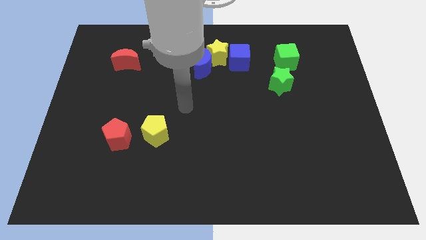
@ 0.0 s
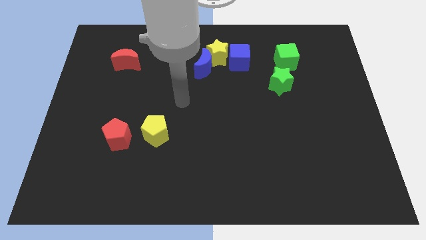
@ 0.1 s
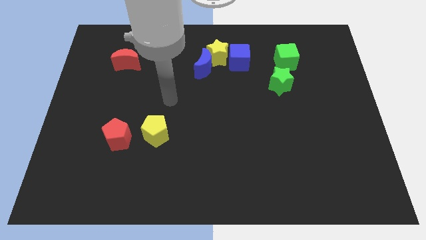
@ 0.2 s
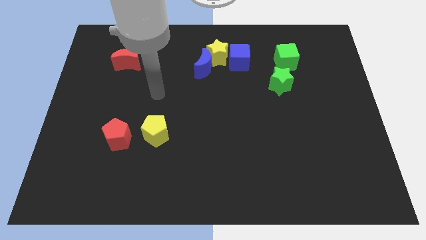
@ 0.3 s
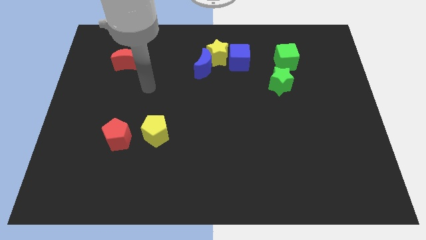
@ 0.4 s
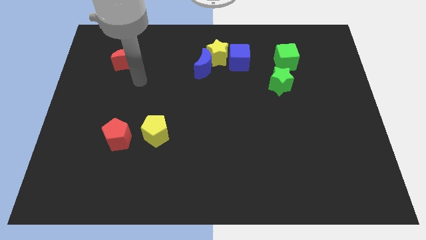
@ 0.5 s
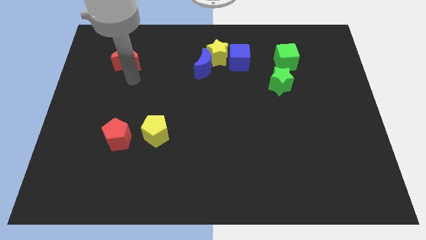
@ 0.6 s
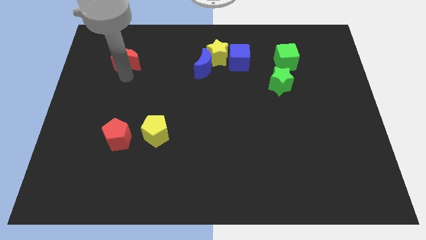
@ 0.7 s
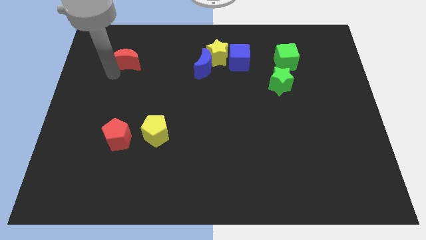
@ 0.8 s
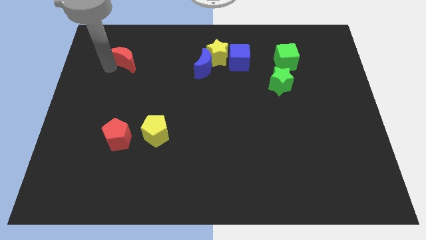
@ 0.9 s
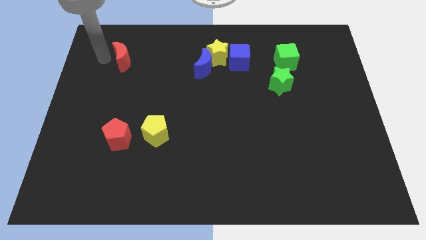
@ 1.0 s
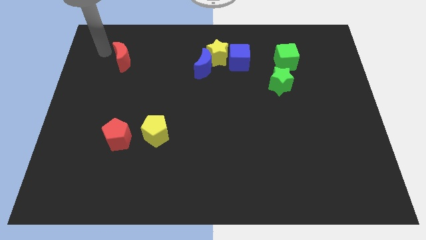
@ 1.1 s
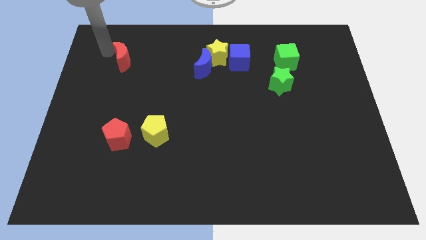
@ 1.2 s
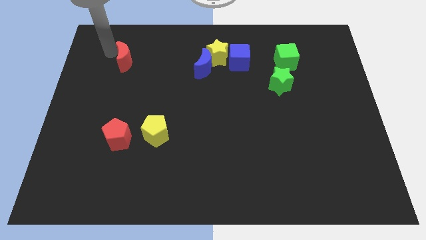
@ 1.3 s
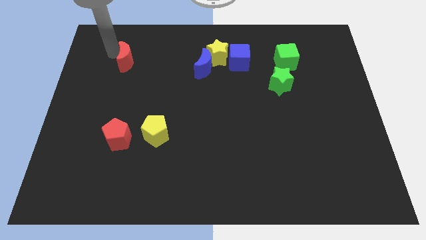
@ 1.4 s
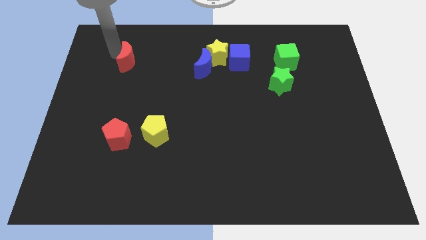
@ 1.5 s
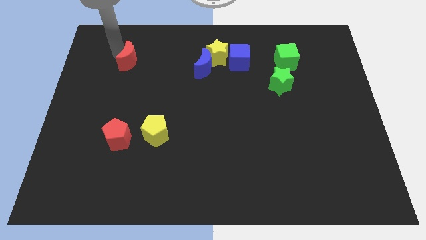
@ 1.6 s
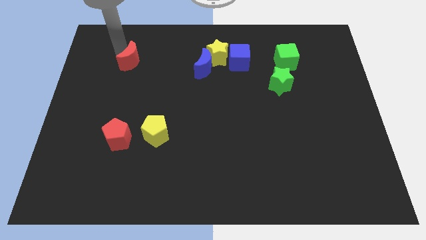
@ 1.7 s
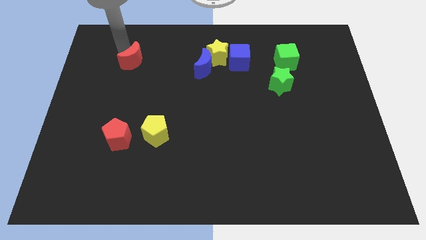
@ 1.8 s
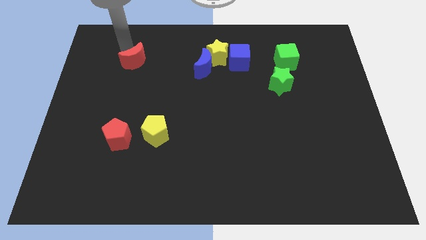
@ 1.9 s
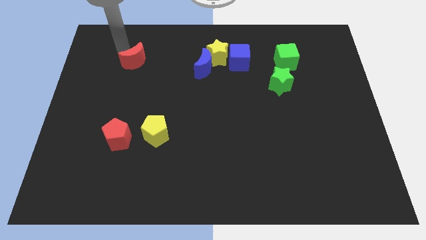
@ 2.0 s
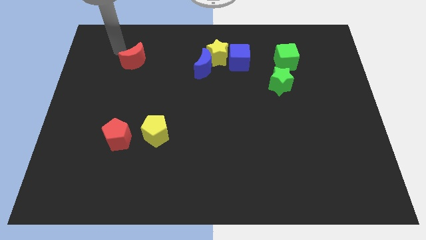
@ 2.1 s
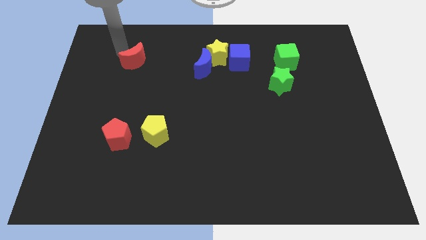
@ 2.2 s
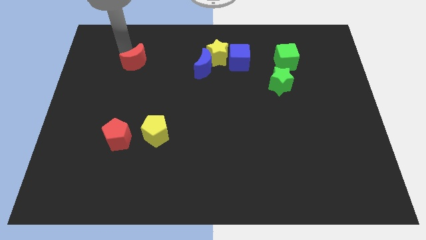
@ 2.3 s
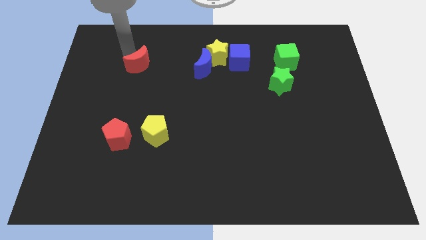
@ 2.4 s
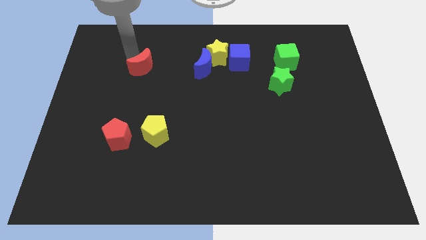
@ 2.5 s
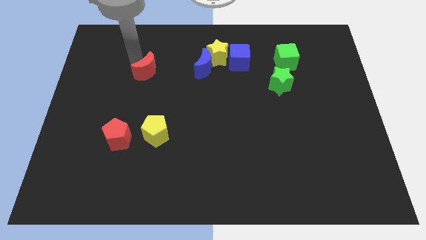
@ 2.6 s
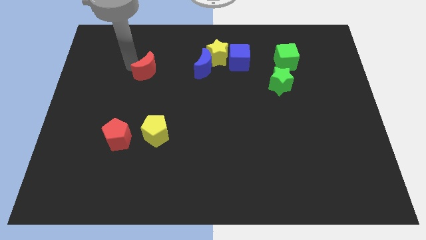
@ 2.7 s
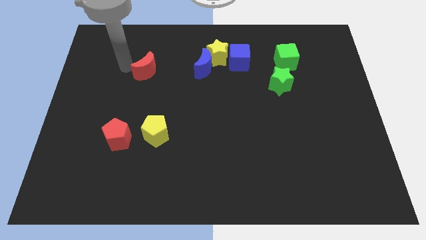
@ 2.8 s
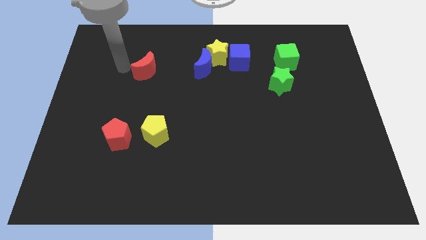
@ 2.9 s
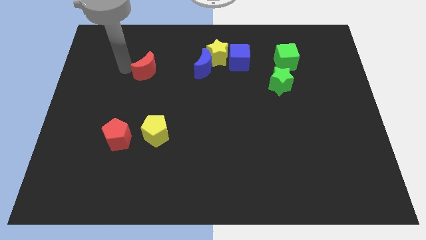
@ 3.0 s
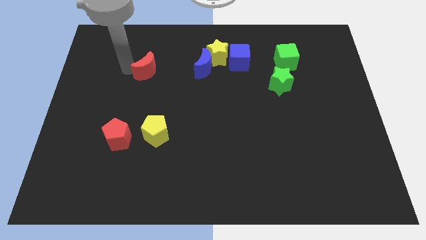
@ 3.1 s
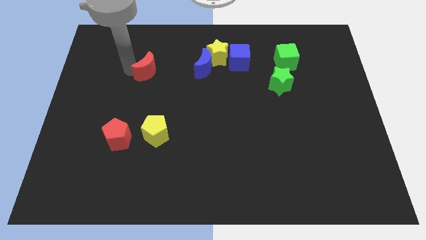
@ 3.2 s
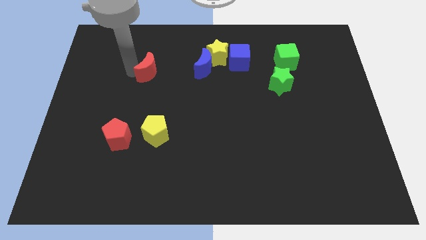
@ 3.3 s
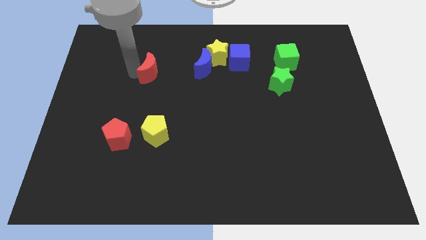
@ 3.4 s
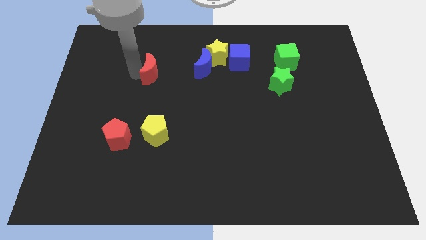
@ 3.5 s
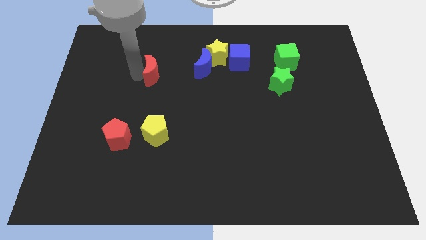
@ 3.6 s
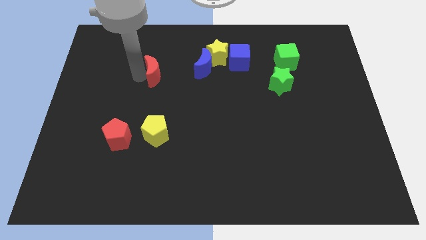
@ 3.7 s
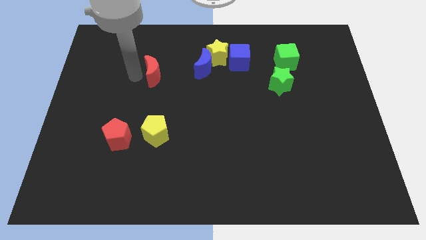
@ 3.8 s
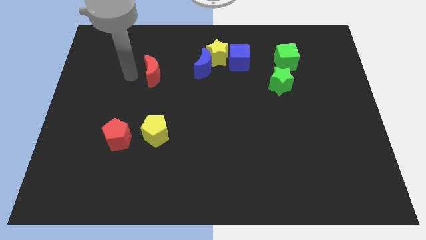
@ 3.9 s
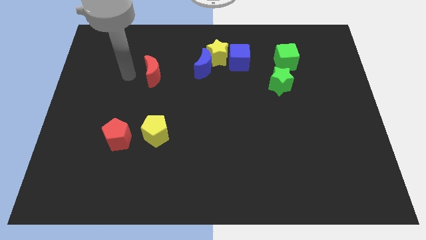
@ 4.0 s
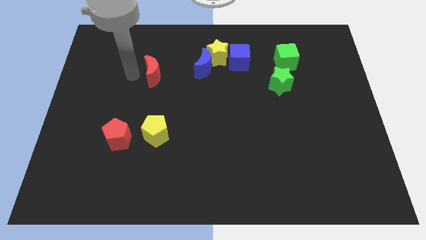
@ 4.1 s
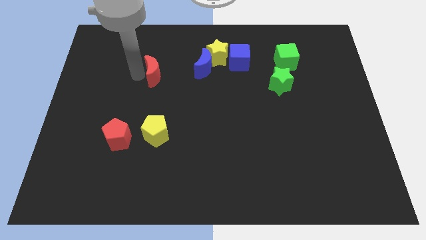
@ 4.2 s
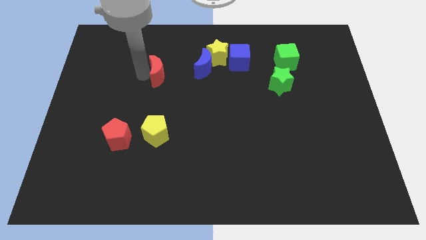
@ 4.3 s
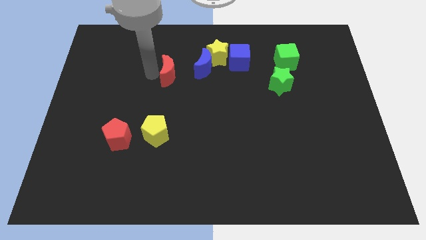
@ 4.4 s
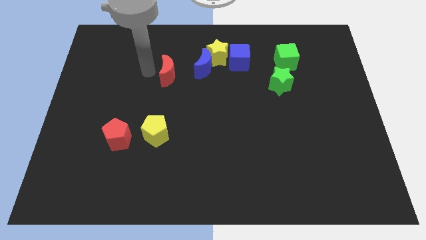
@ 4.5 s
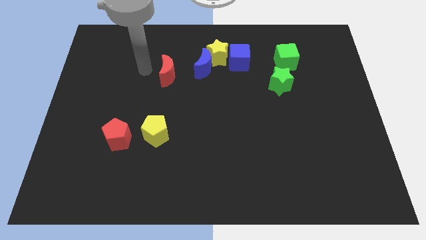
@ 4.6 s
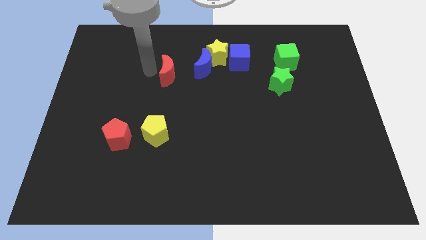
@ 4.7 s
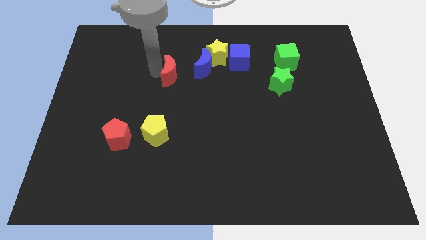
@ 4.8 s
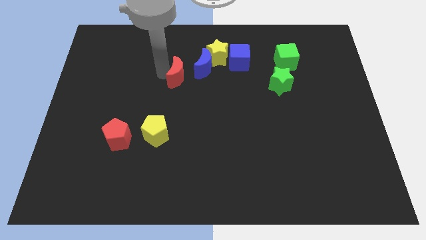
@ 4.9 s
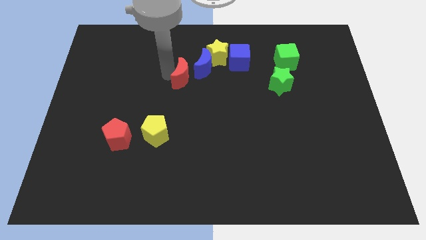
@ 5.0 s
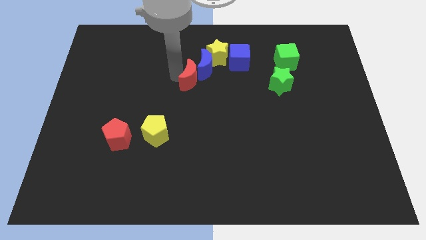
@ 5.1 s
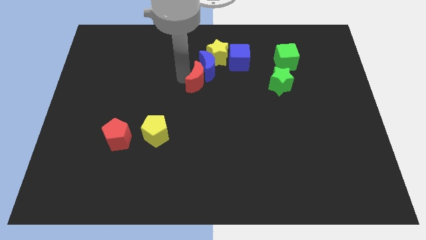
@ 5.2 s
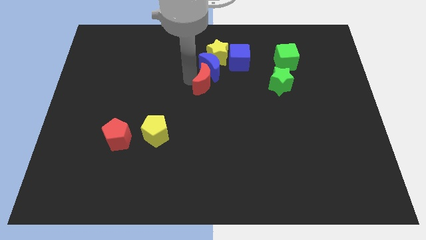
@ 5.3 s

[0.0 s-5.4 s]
push the red moon below the yellow star
